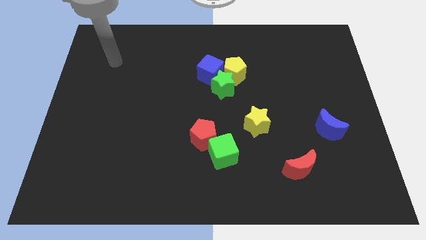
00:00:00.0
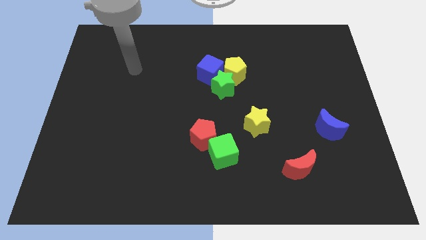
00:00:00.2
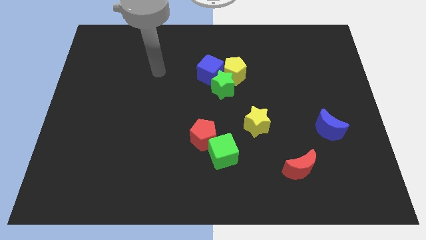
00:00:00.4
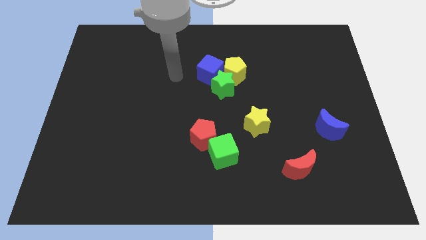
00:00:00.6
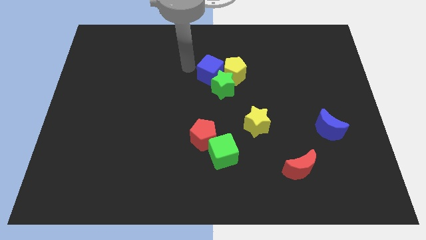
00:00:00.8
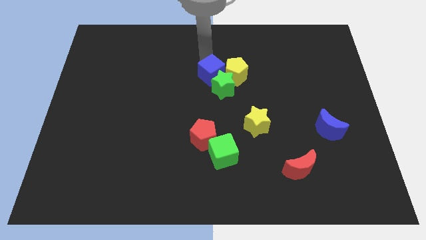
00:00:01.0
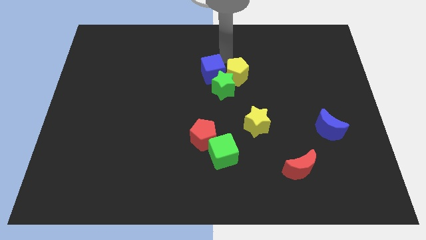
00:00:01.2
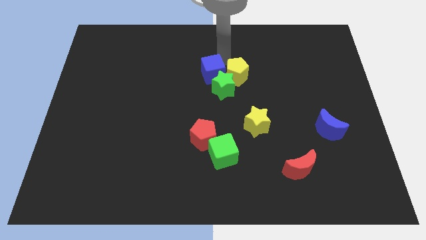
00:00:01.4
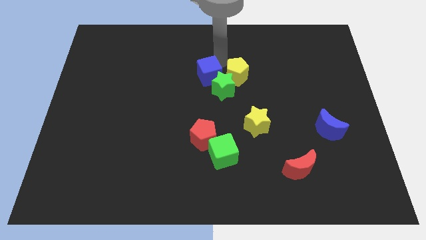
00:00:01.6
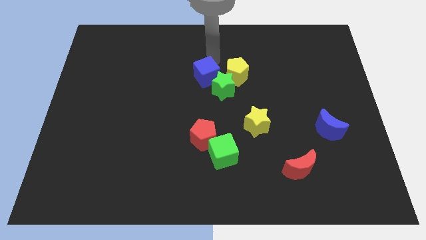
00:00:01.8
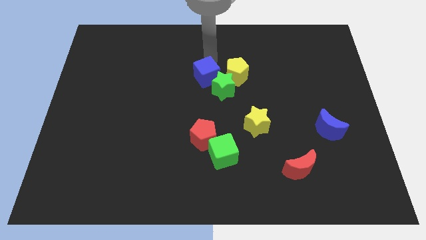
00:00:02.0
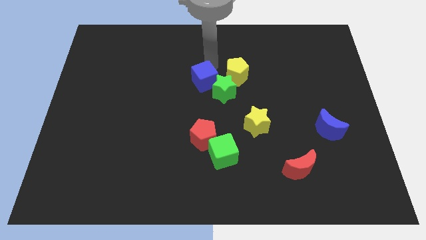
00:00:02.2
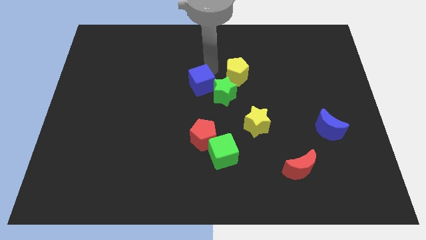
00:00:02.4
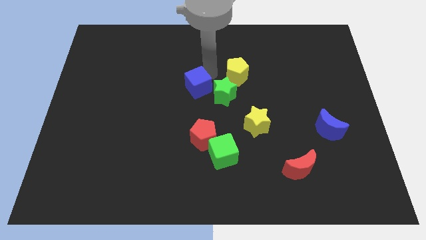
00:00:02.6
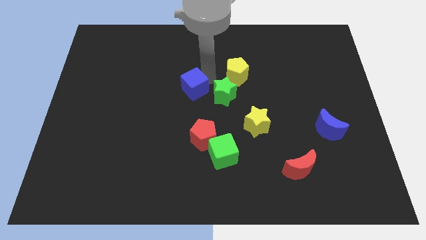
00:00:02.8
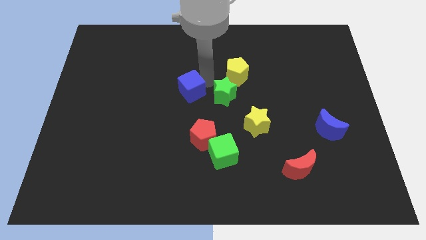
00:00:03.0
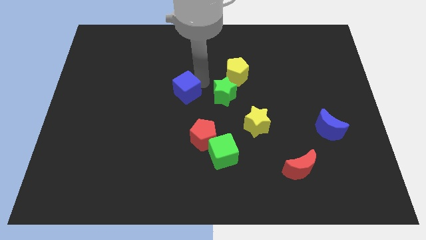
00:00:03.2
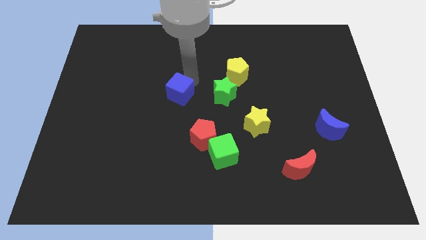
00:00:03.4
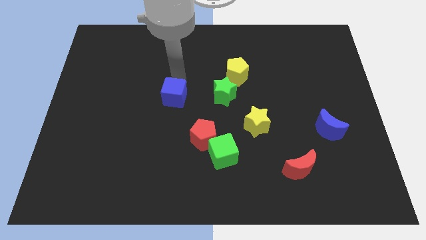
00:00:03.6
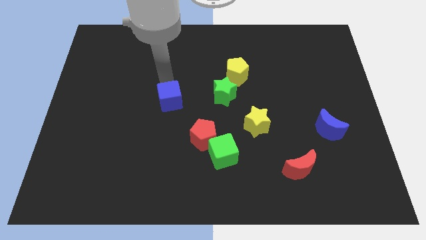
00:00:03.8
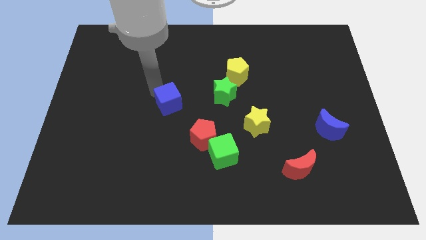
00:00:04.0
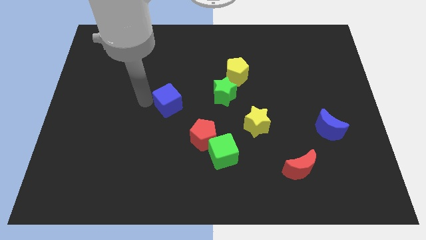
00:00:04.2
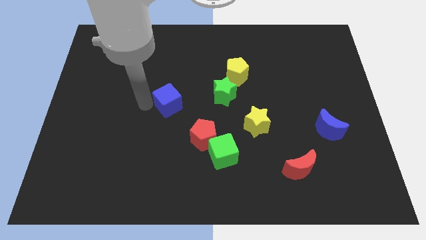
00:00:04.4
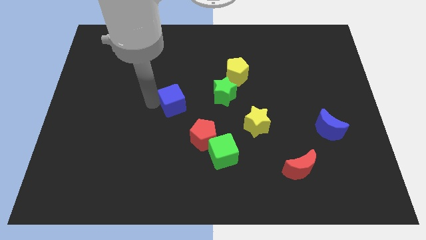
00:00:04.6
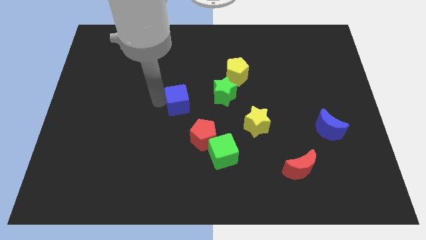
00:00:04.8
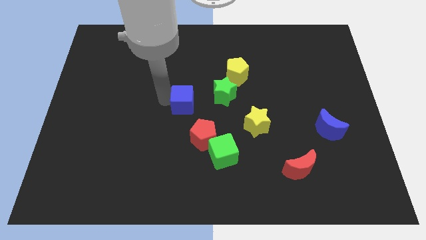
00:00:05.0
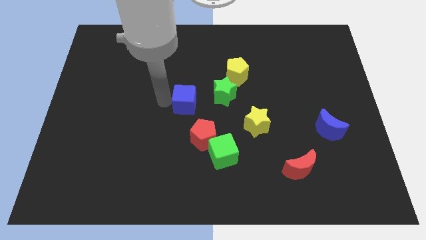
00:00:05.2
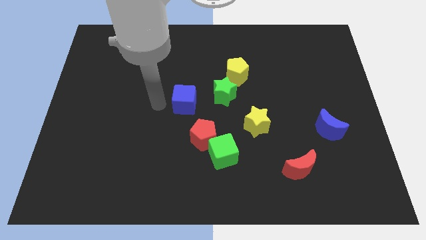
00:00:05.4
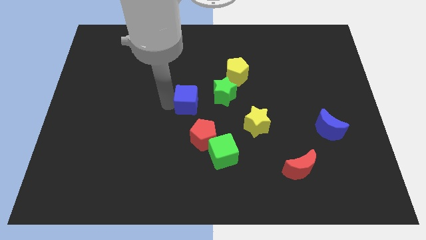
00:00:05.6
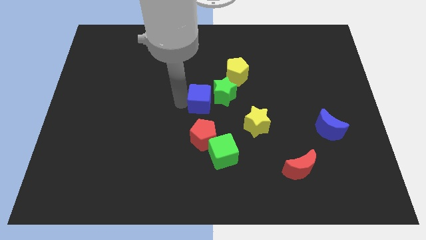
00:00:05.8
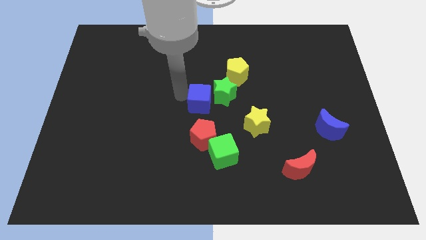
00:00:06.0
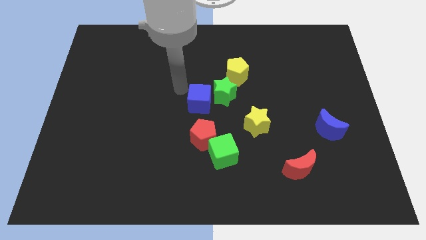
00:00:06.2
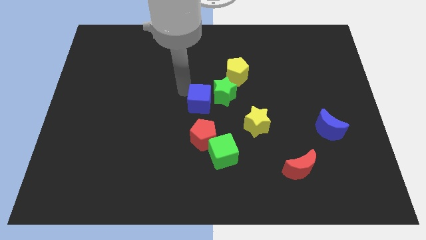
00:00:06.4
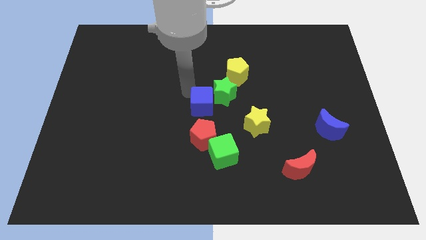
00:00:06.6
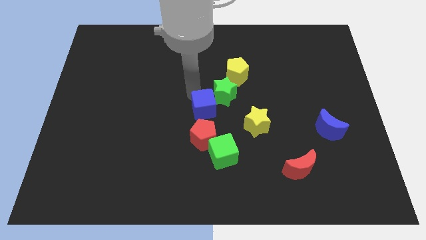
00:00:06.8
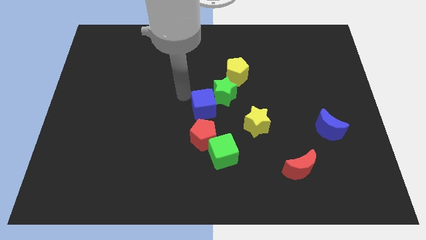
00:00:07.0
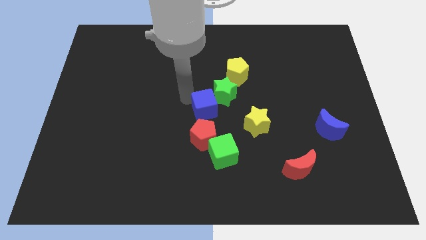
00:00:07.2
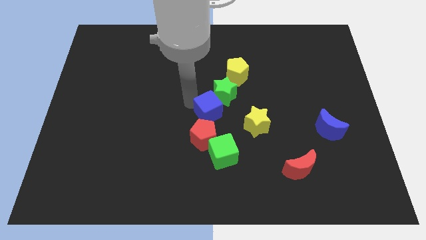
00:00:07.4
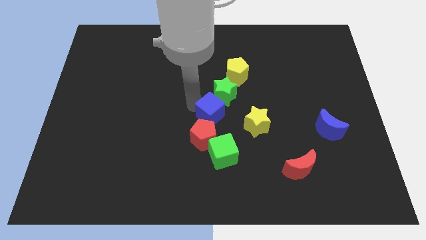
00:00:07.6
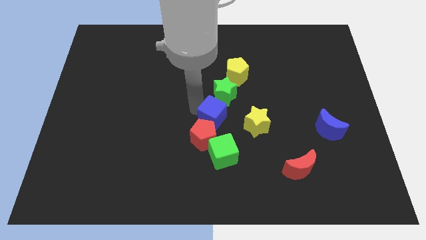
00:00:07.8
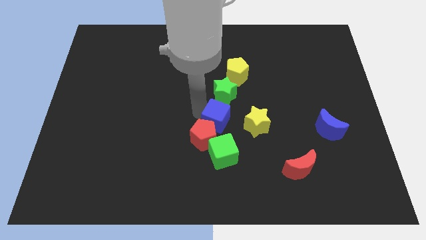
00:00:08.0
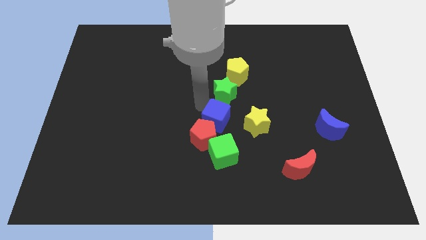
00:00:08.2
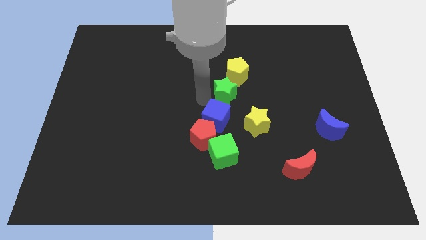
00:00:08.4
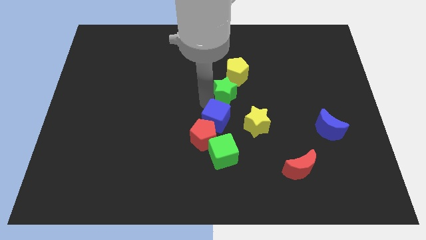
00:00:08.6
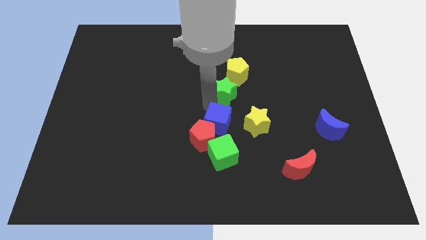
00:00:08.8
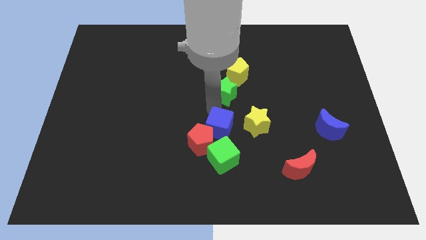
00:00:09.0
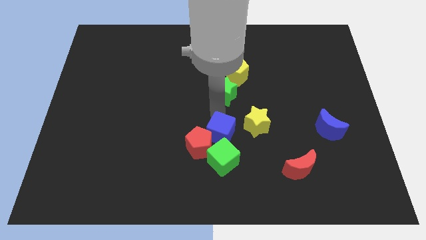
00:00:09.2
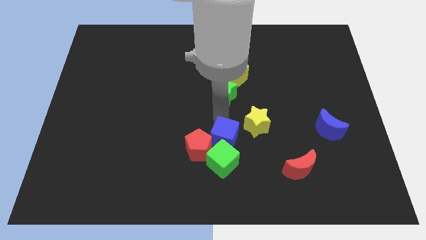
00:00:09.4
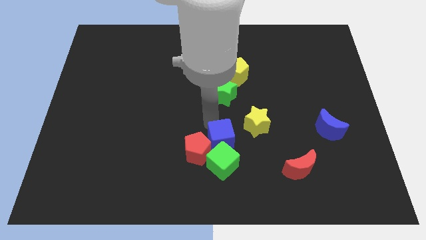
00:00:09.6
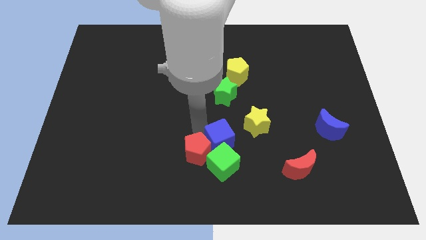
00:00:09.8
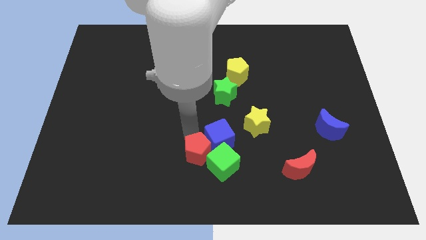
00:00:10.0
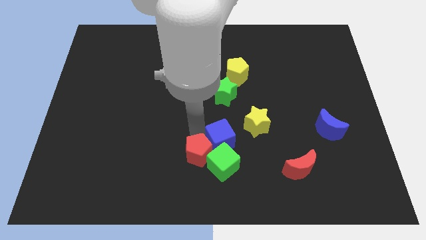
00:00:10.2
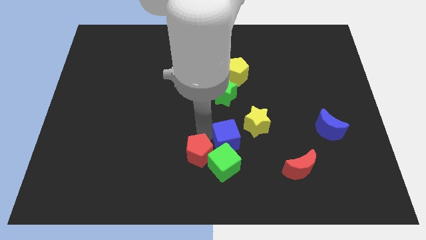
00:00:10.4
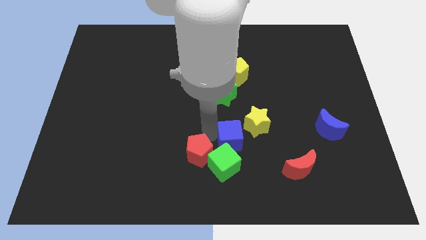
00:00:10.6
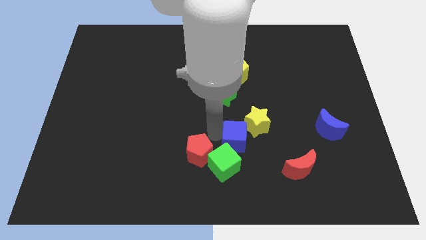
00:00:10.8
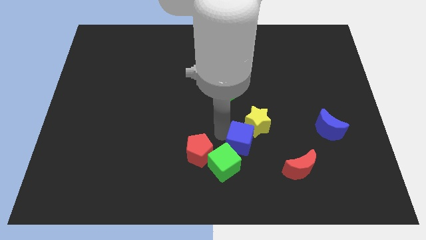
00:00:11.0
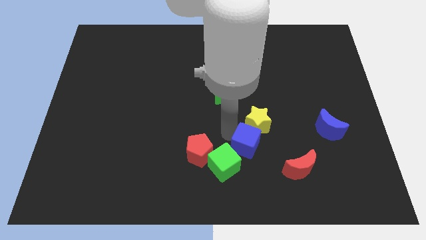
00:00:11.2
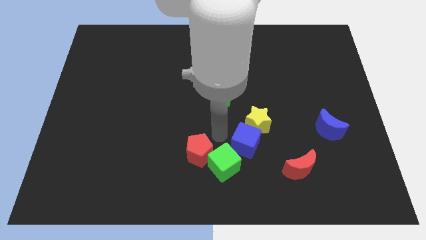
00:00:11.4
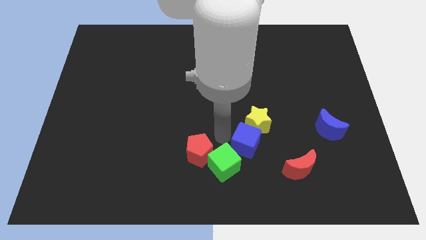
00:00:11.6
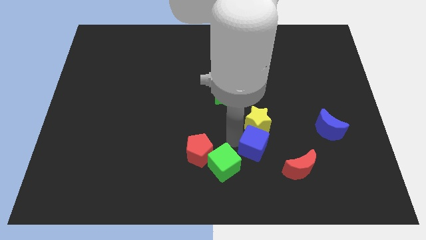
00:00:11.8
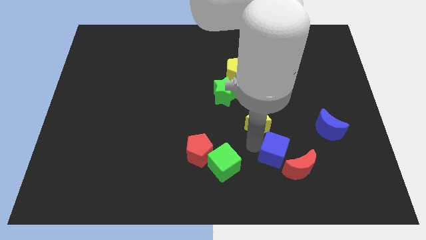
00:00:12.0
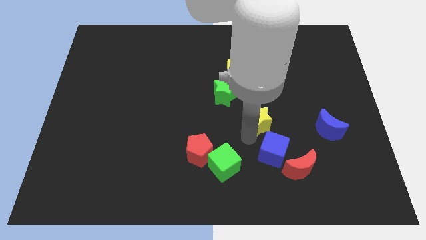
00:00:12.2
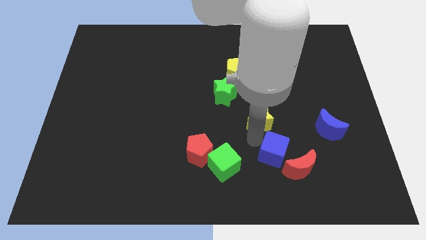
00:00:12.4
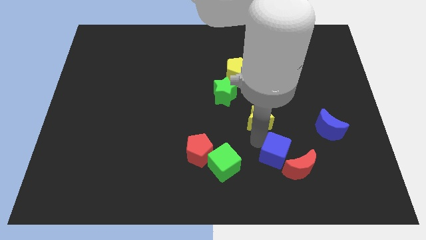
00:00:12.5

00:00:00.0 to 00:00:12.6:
slide the blue cube towards the red moon
